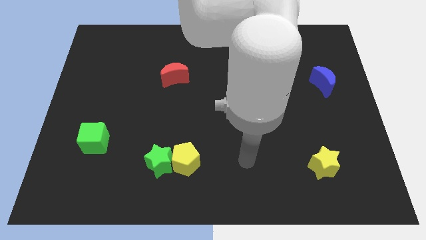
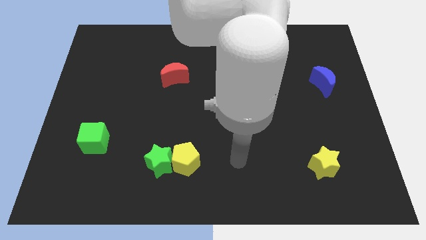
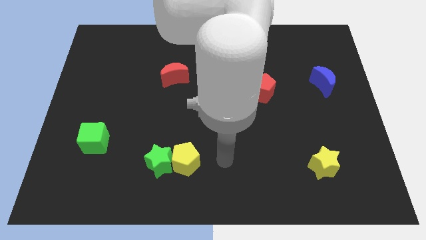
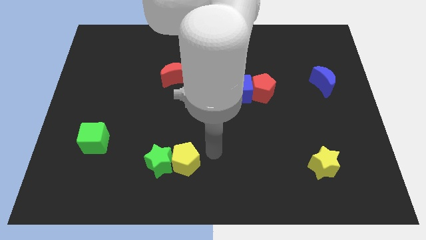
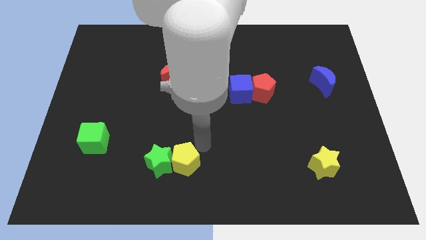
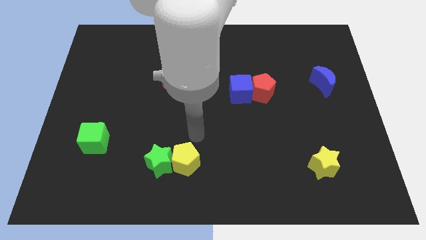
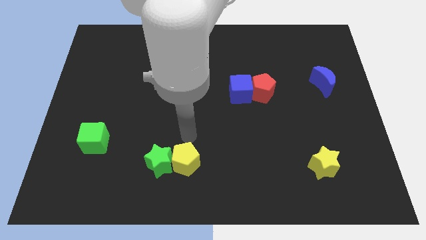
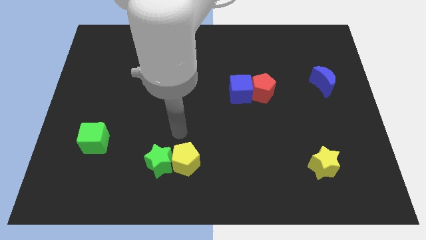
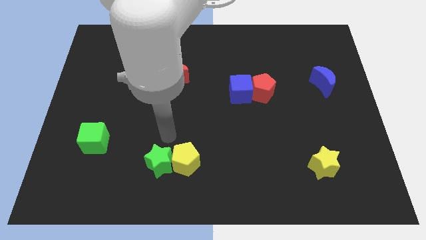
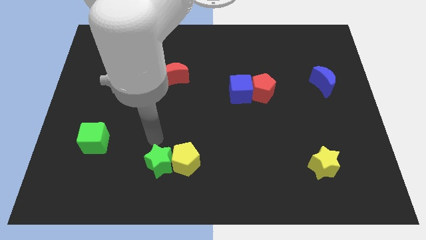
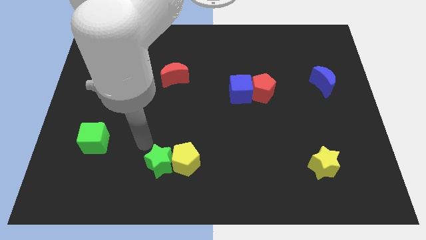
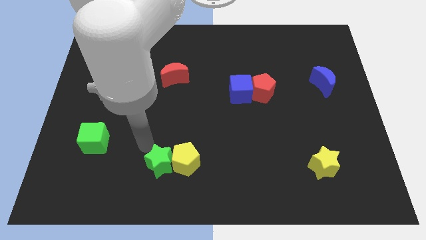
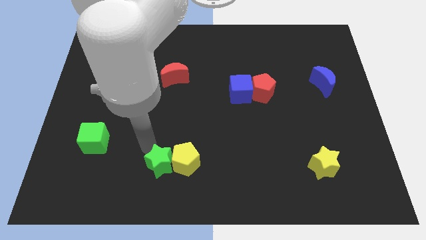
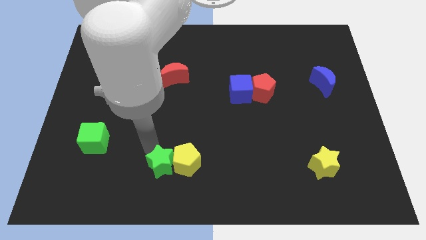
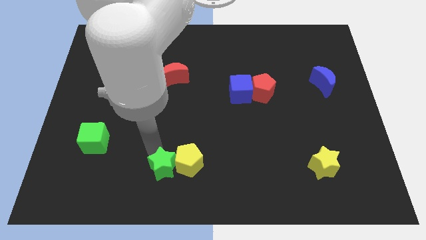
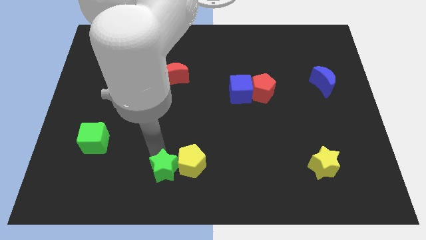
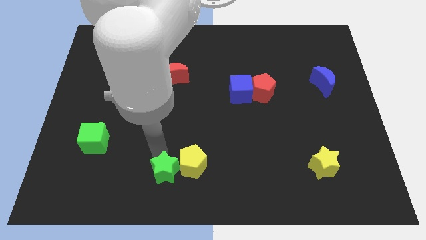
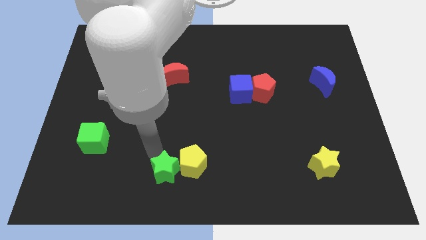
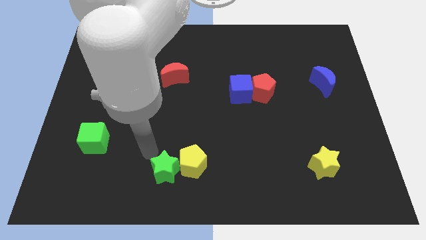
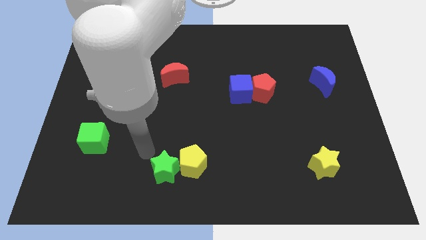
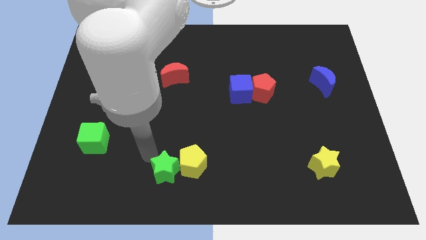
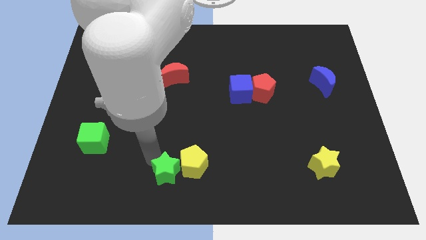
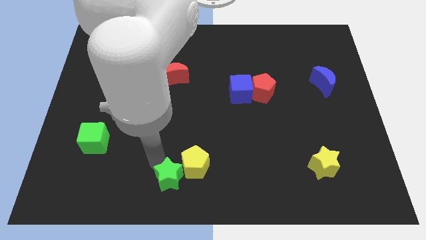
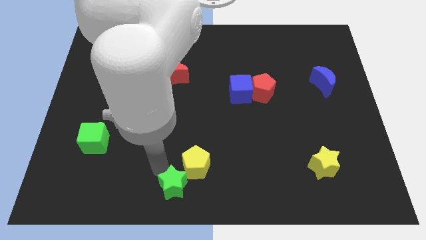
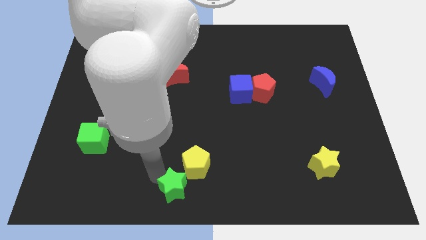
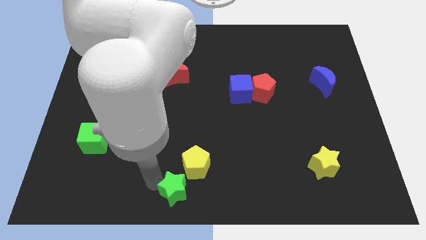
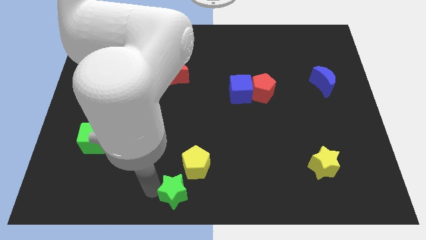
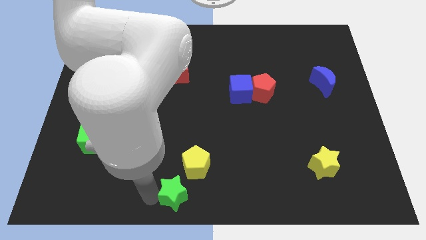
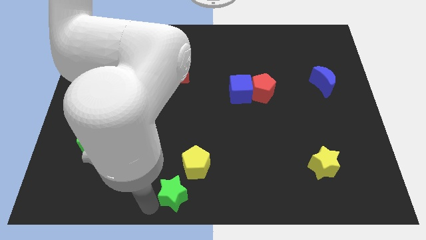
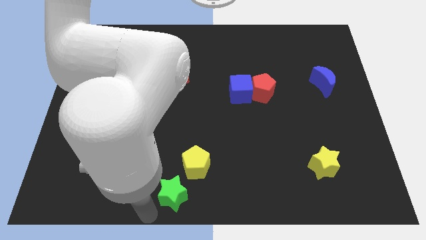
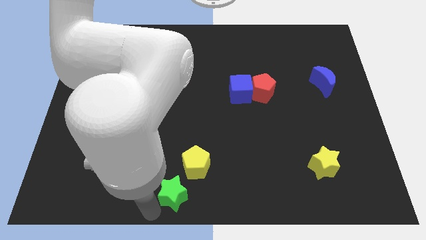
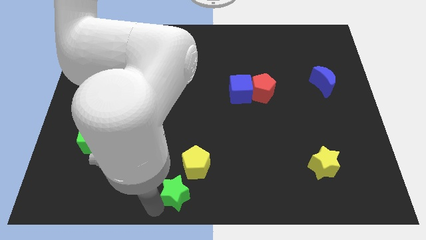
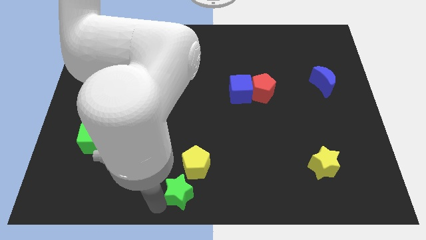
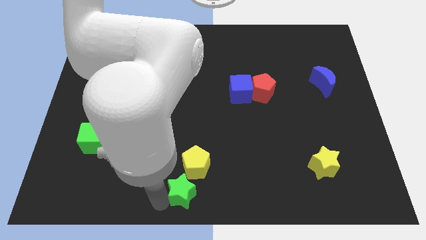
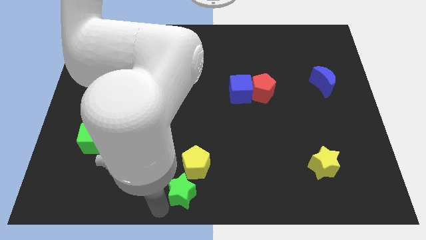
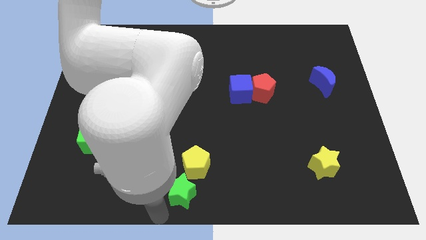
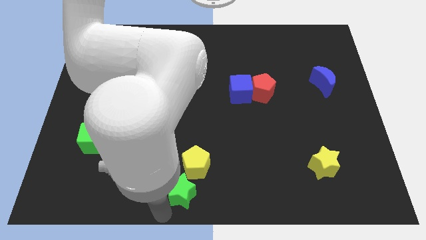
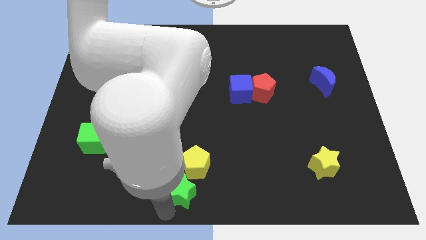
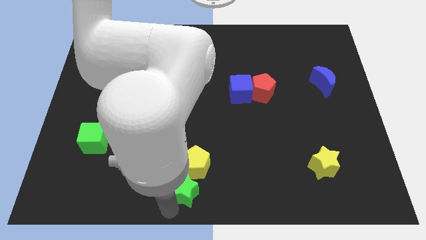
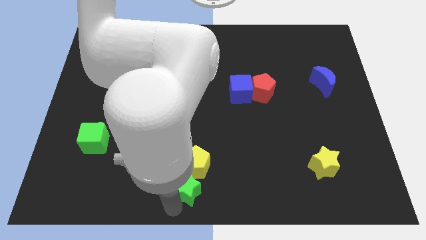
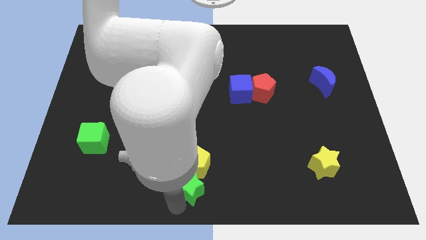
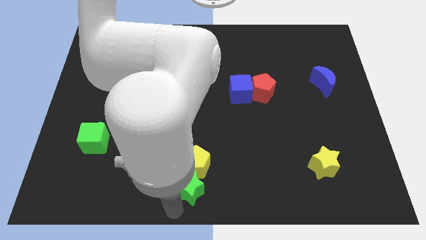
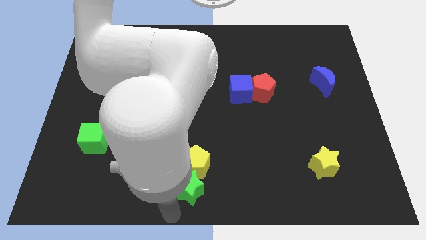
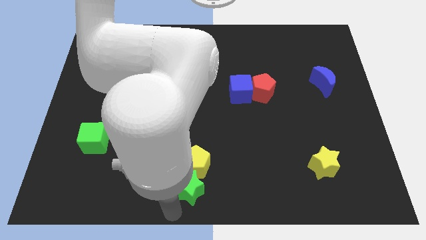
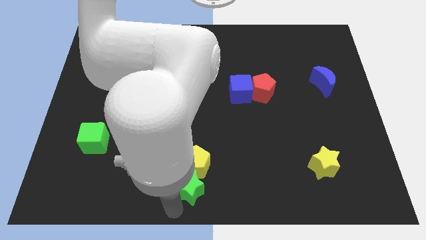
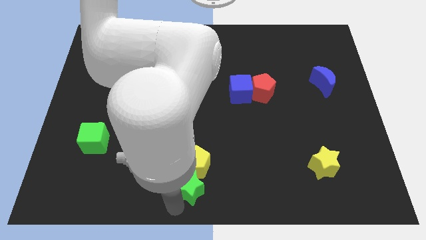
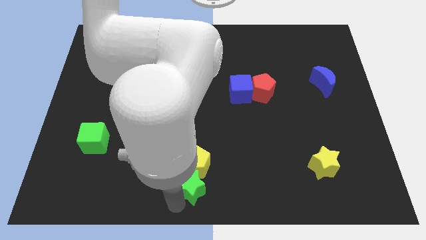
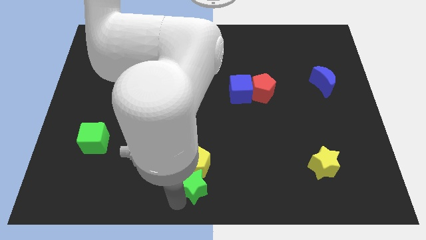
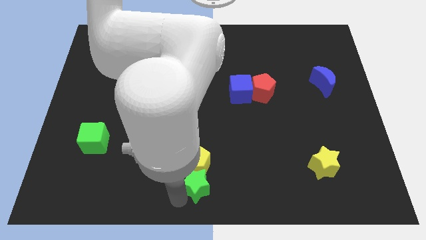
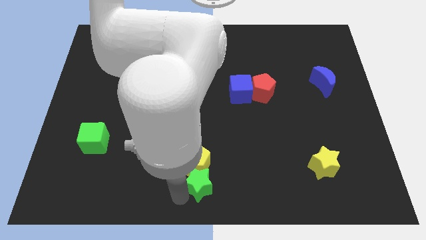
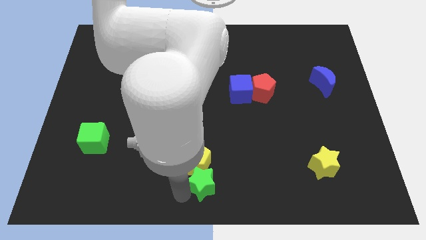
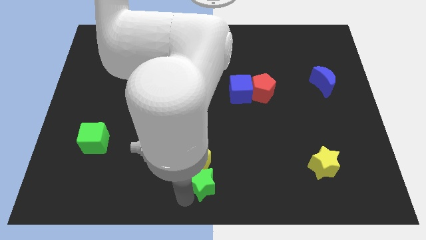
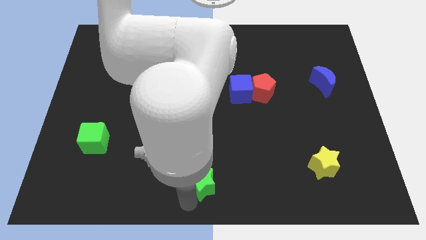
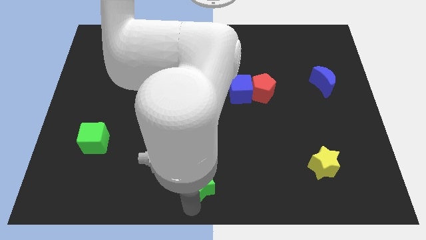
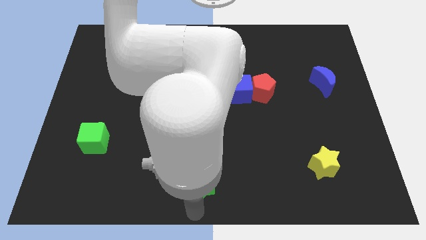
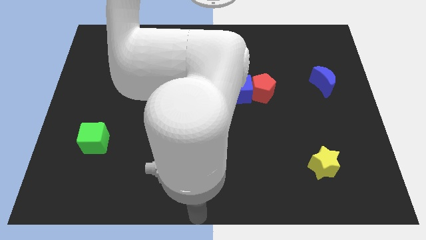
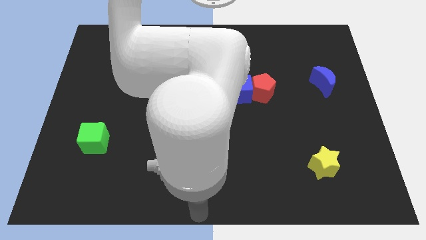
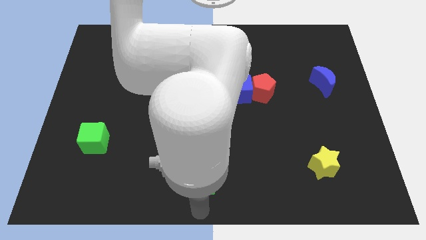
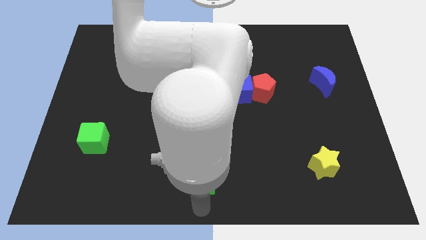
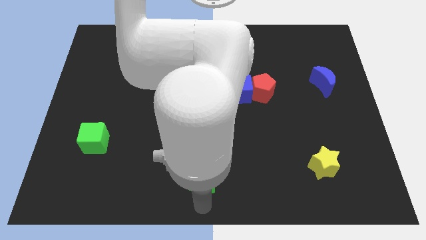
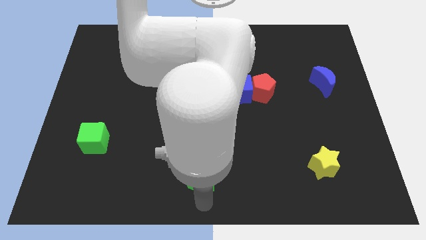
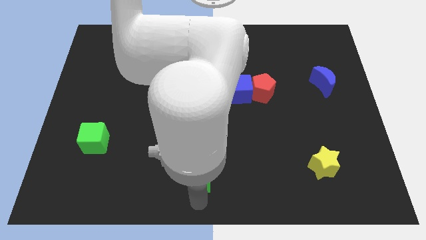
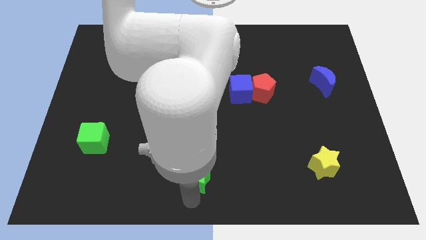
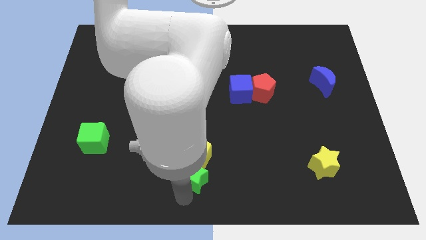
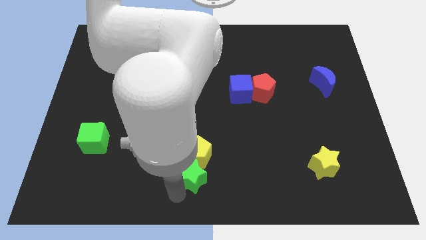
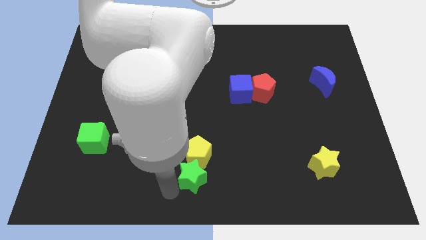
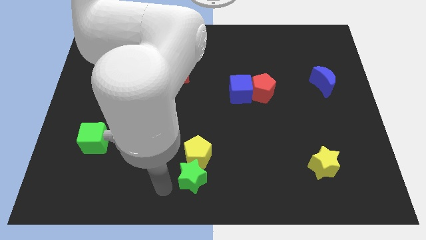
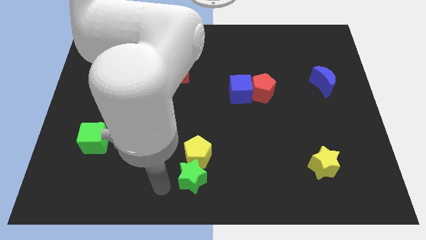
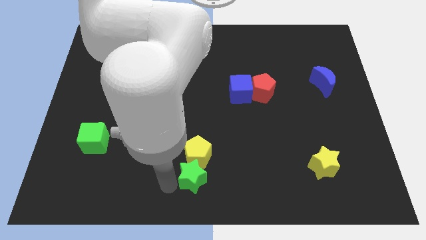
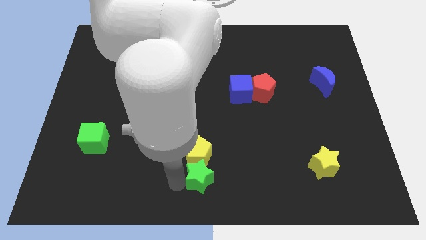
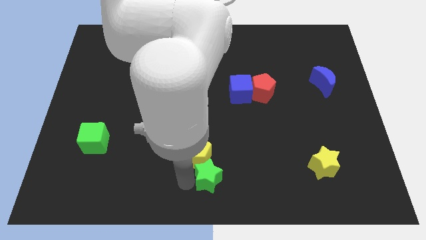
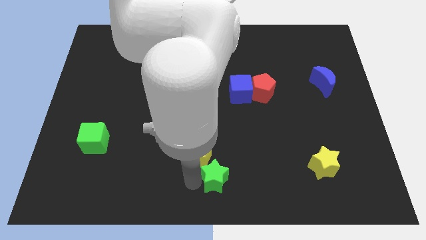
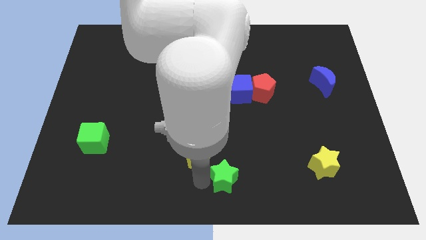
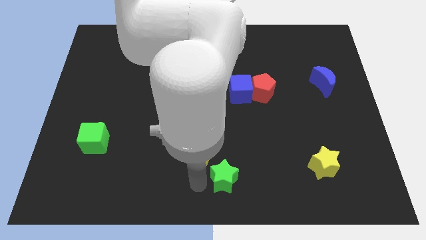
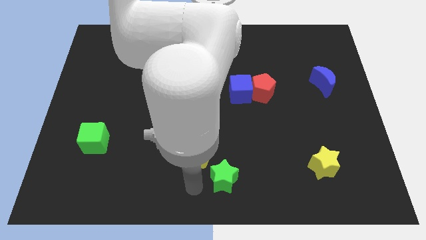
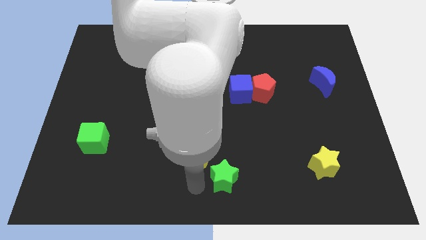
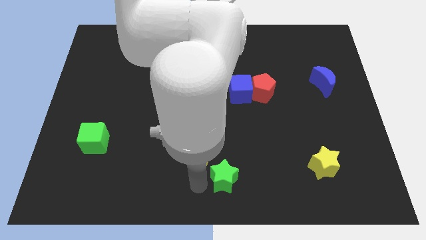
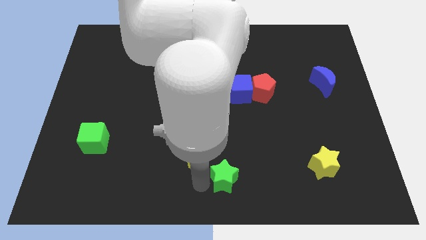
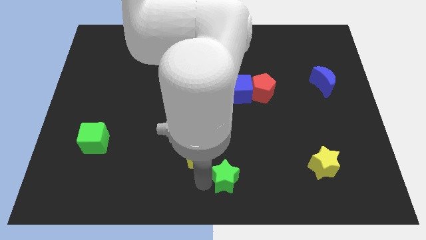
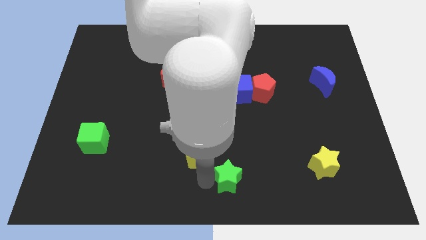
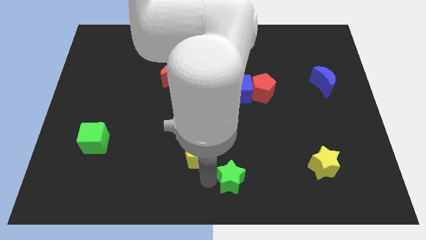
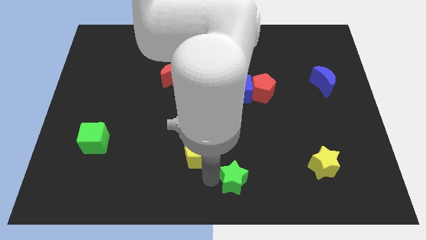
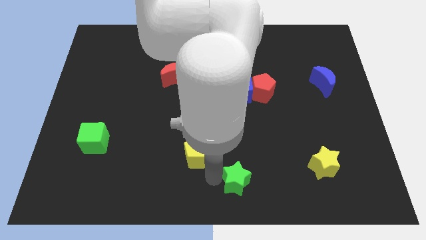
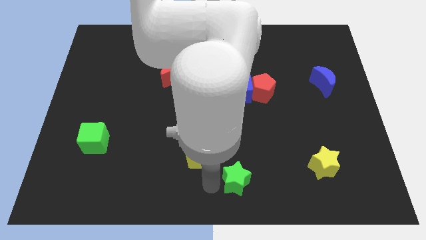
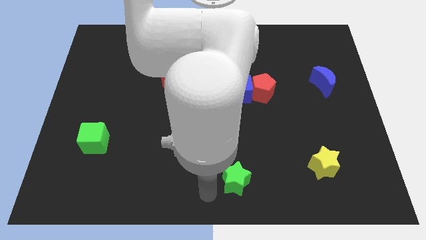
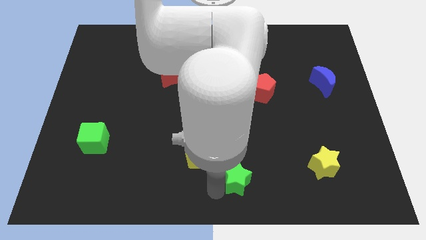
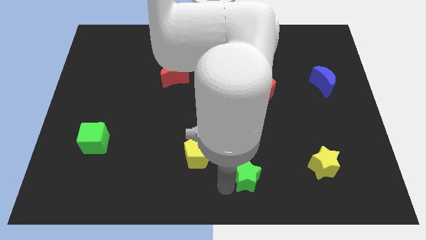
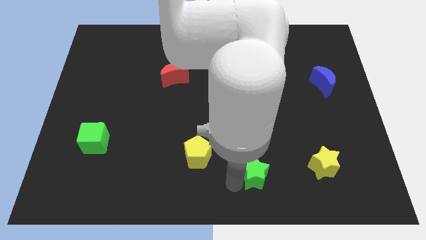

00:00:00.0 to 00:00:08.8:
slide the green star just left of the yellow star
